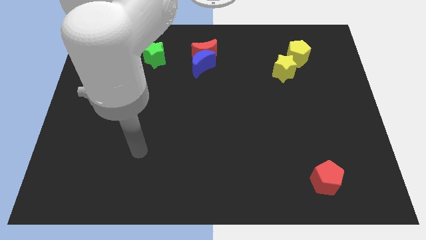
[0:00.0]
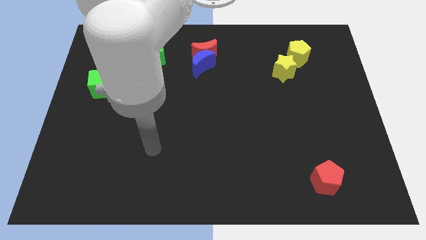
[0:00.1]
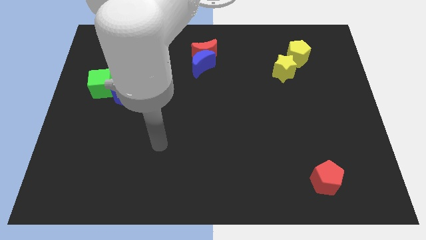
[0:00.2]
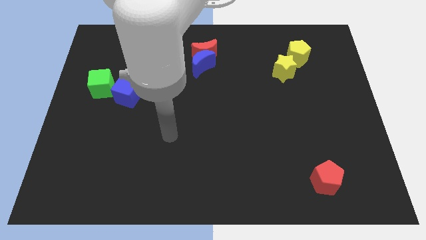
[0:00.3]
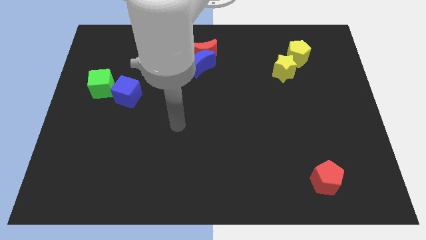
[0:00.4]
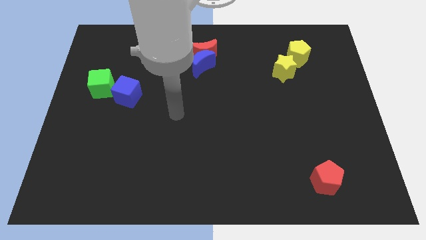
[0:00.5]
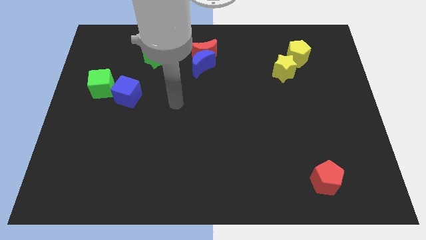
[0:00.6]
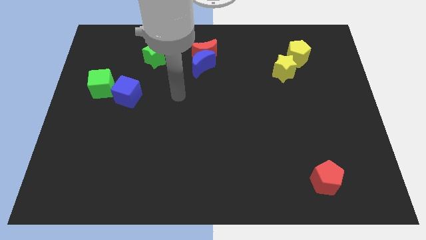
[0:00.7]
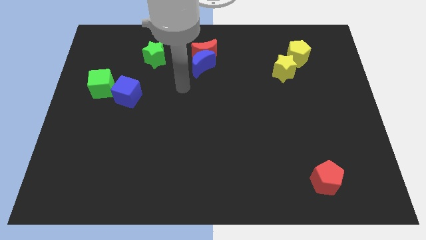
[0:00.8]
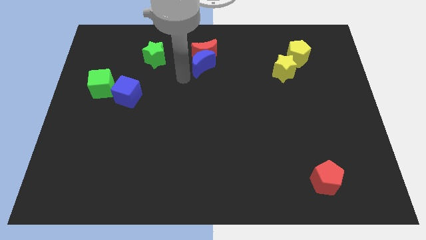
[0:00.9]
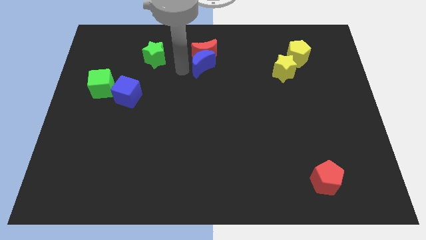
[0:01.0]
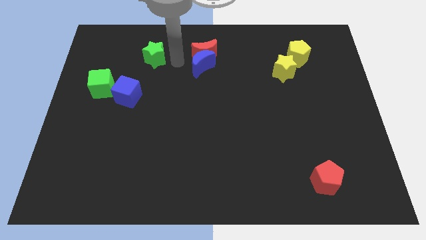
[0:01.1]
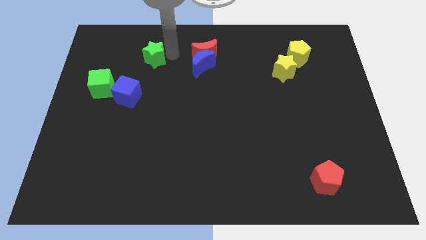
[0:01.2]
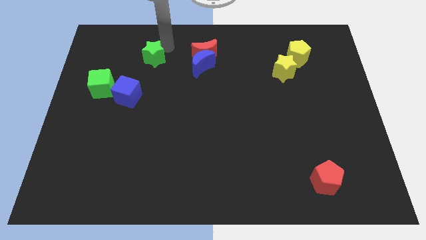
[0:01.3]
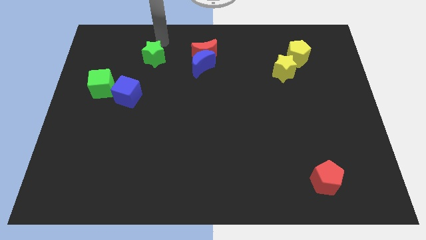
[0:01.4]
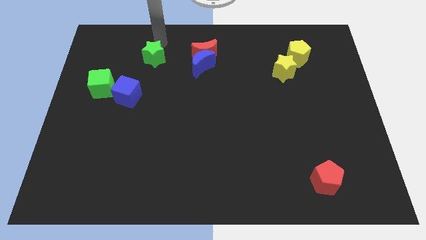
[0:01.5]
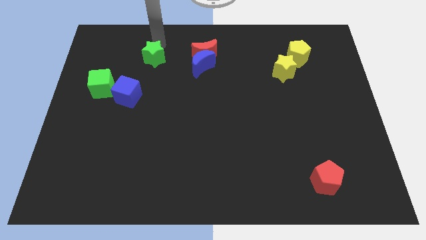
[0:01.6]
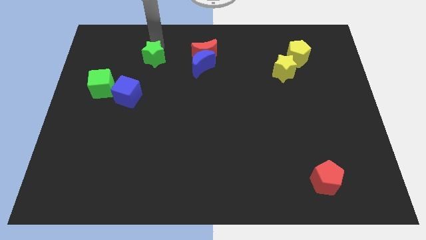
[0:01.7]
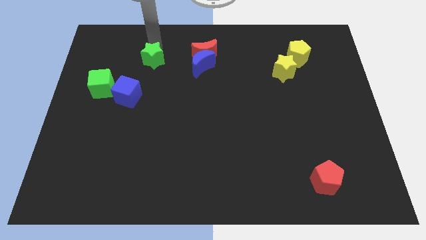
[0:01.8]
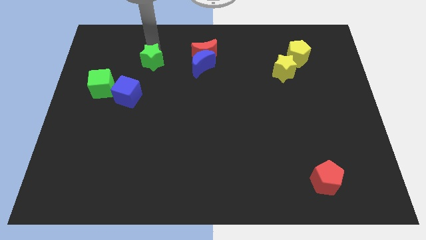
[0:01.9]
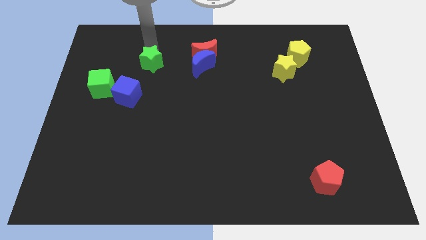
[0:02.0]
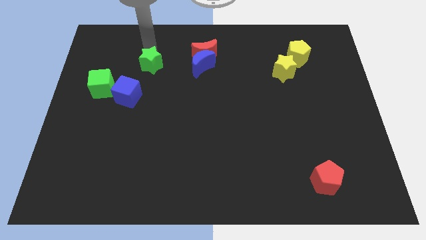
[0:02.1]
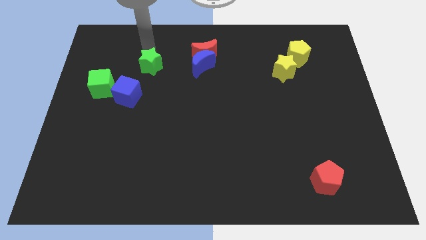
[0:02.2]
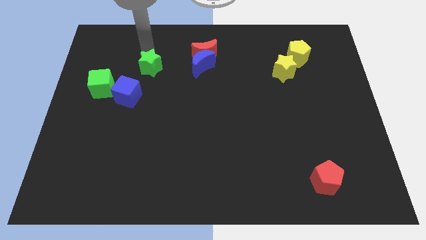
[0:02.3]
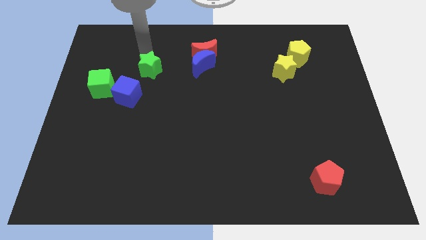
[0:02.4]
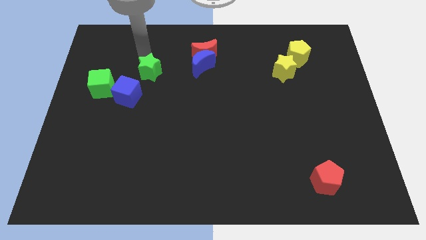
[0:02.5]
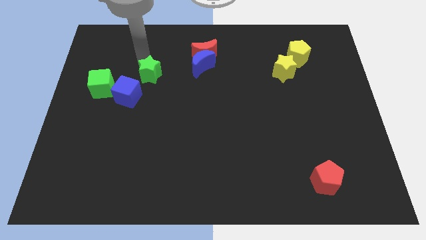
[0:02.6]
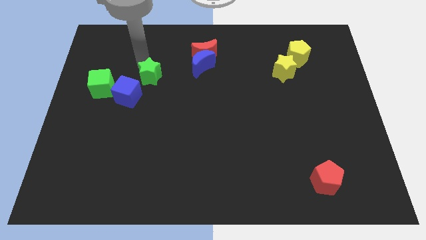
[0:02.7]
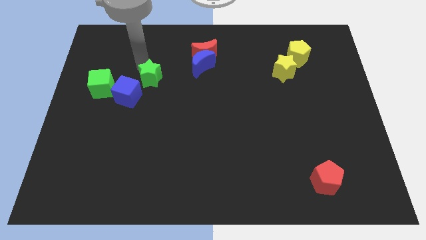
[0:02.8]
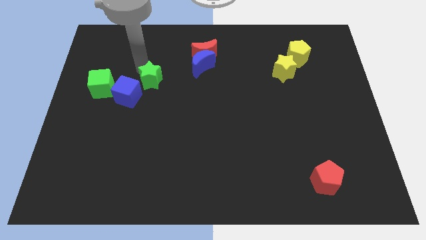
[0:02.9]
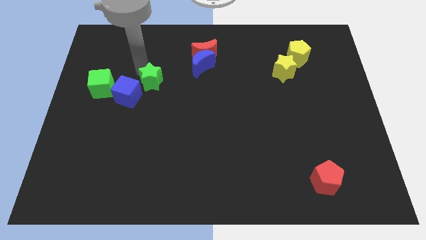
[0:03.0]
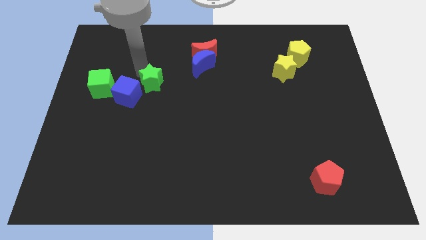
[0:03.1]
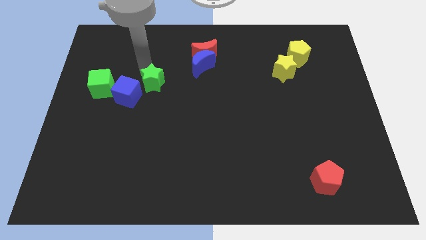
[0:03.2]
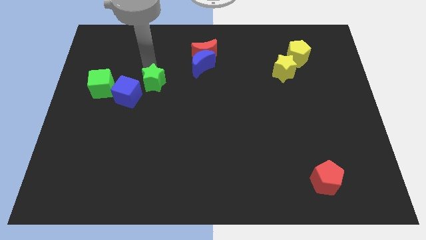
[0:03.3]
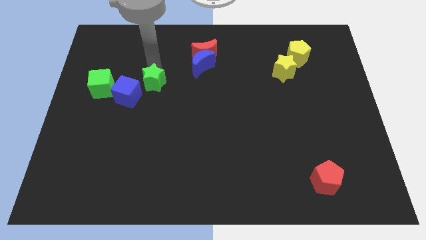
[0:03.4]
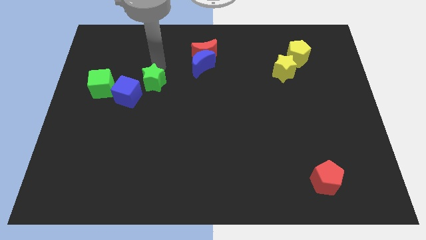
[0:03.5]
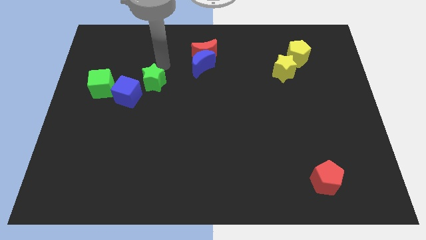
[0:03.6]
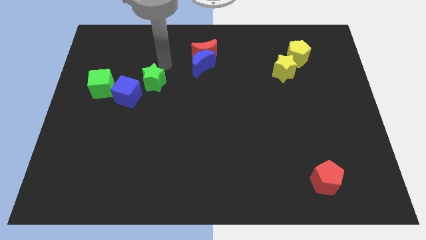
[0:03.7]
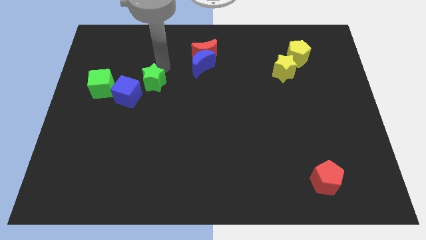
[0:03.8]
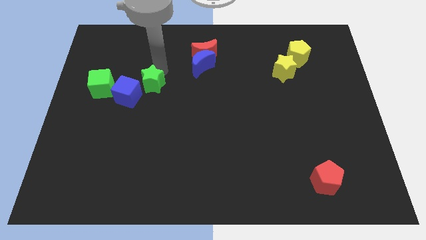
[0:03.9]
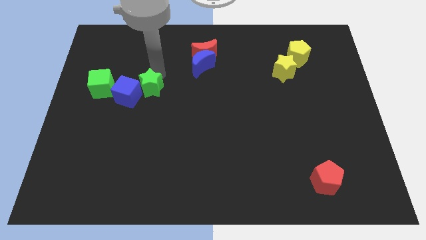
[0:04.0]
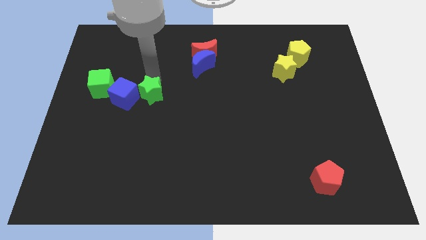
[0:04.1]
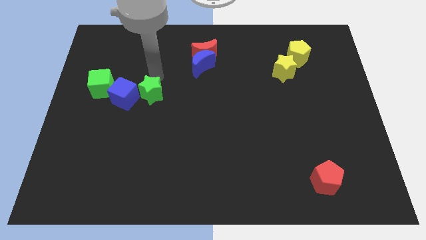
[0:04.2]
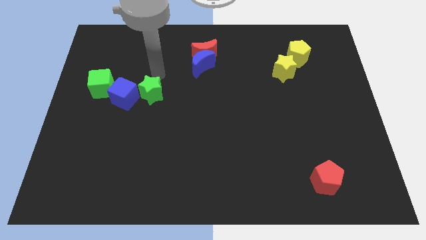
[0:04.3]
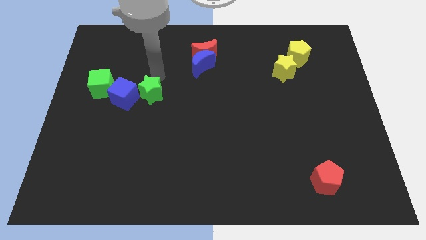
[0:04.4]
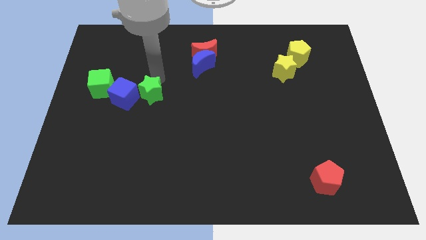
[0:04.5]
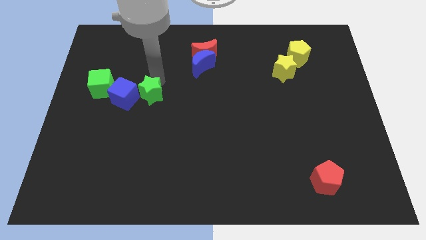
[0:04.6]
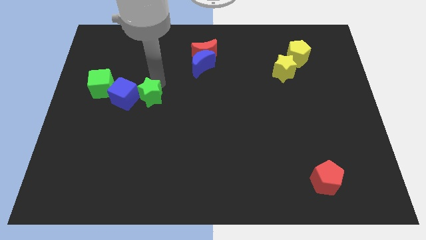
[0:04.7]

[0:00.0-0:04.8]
move the green star to the bottom right side of the blue cube

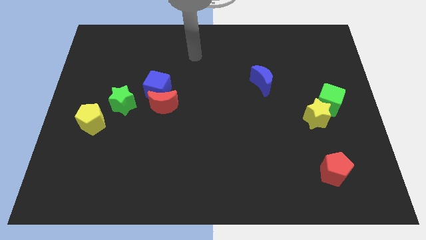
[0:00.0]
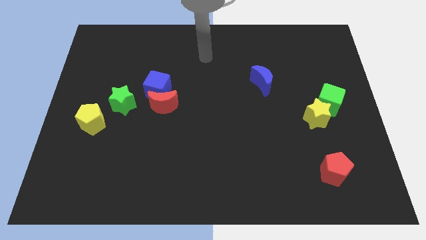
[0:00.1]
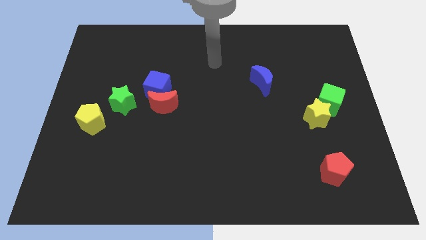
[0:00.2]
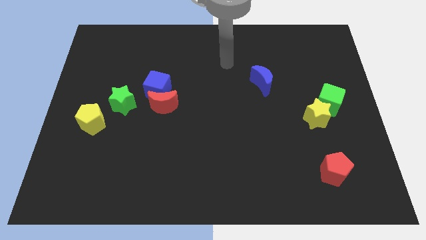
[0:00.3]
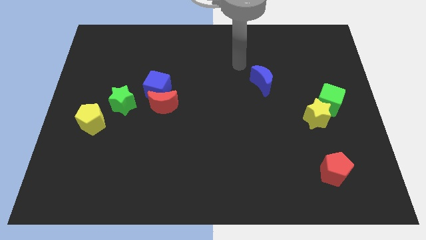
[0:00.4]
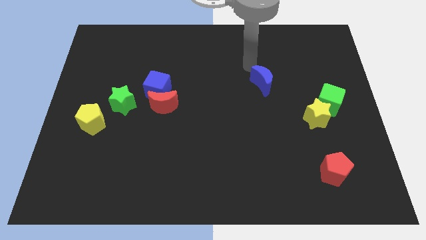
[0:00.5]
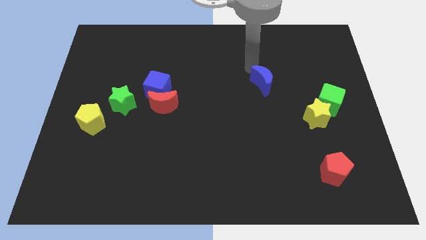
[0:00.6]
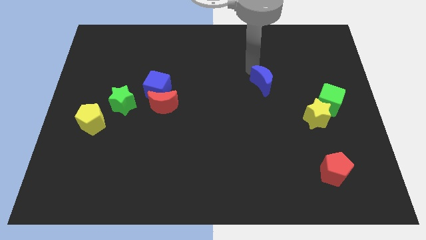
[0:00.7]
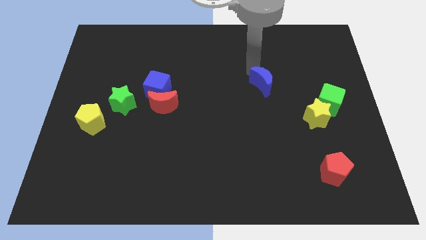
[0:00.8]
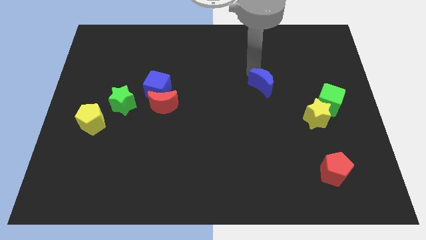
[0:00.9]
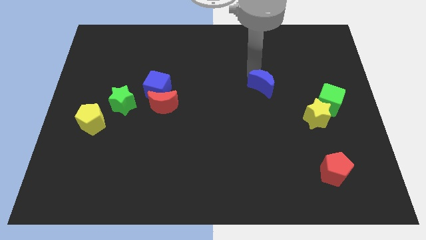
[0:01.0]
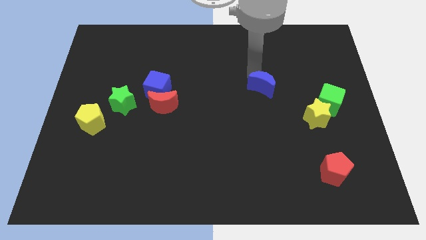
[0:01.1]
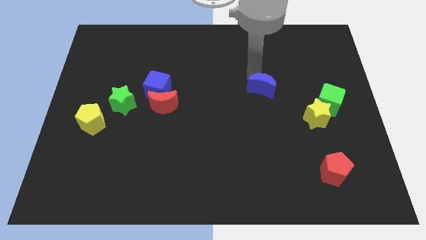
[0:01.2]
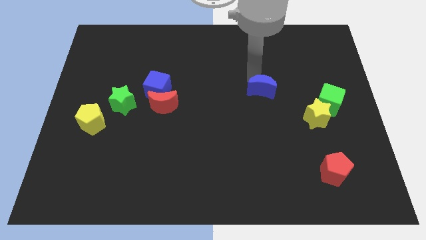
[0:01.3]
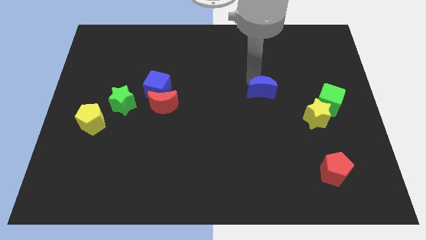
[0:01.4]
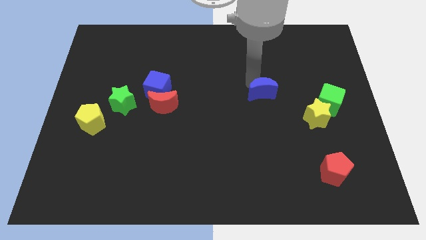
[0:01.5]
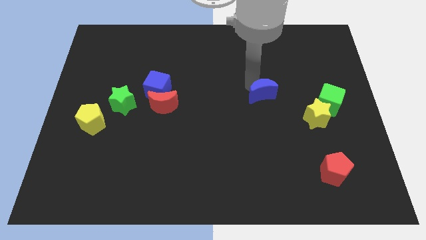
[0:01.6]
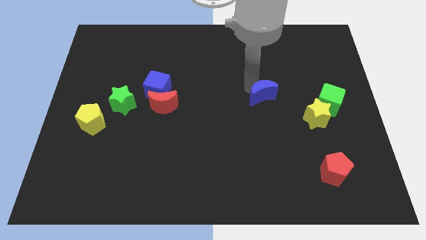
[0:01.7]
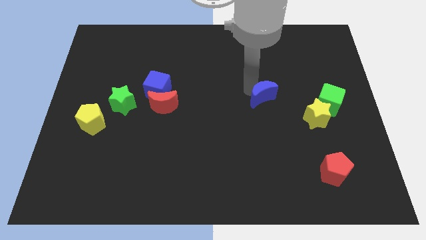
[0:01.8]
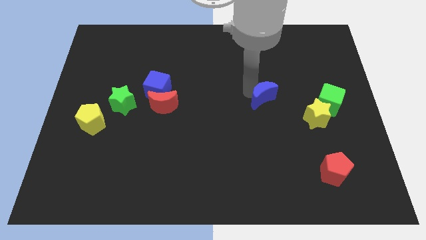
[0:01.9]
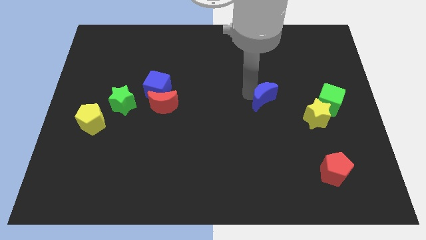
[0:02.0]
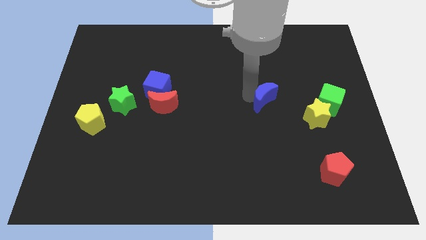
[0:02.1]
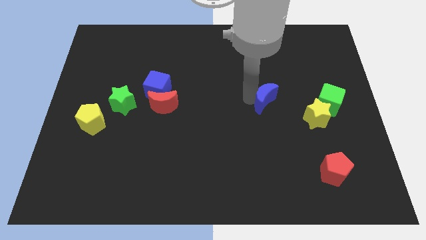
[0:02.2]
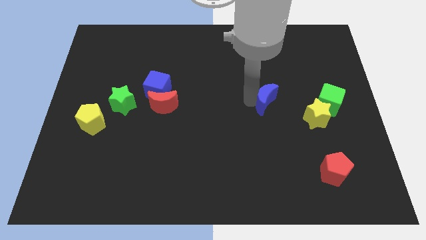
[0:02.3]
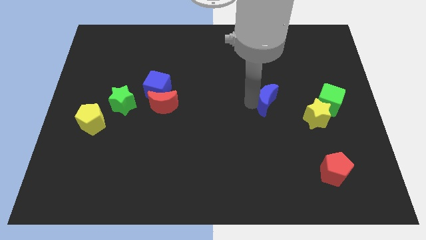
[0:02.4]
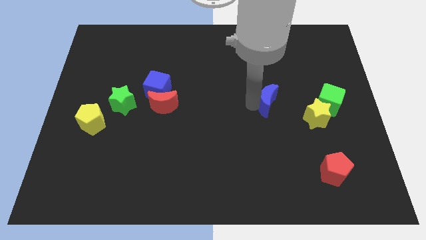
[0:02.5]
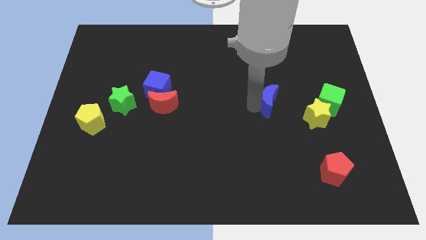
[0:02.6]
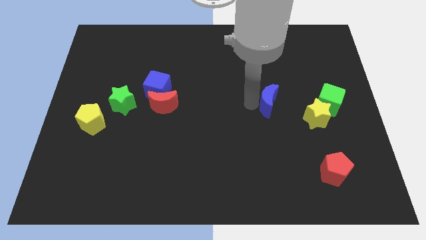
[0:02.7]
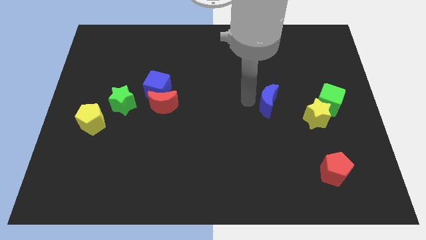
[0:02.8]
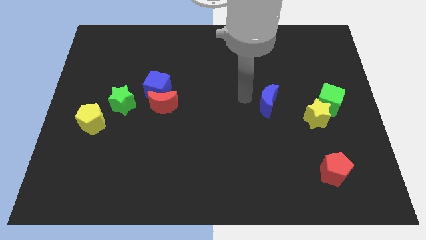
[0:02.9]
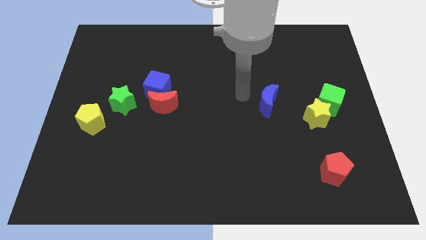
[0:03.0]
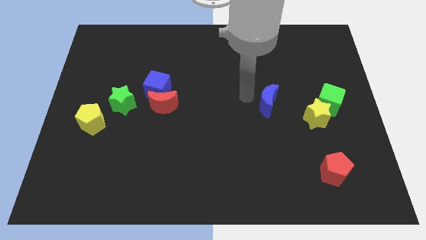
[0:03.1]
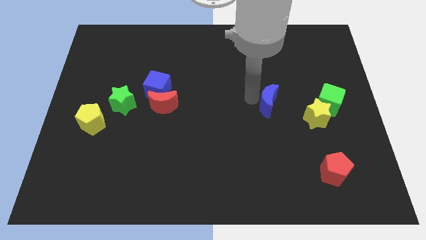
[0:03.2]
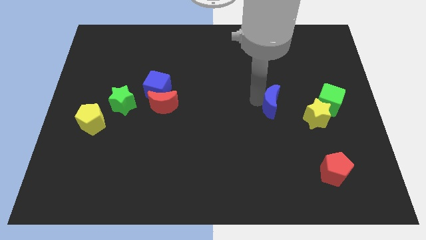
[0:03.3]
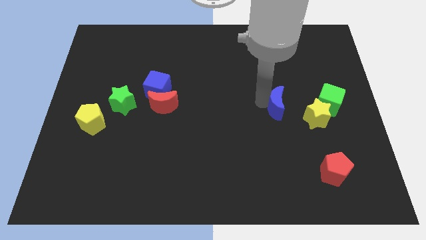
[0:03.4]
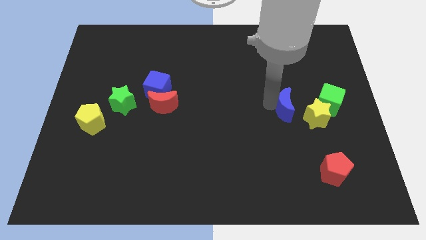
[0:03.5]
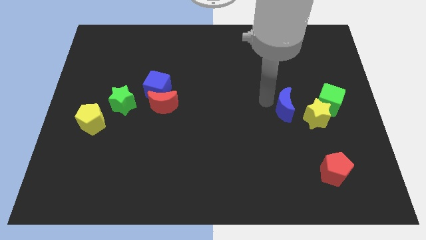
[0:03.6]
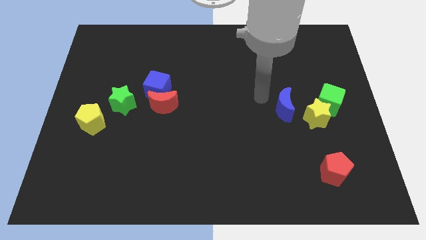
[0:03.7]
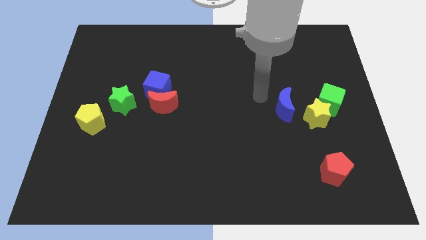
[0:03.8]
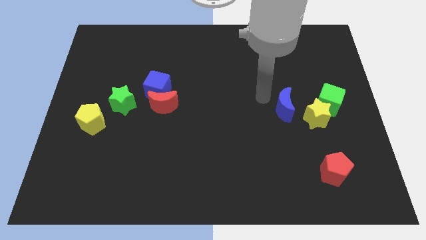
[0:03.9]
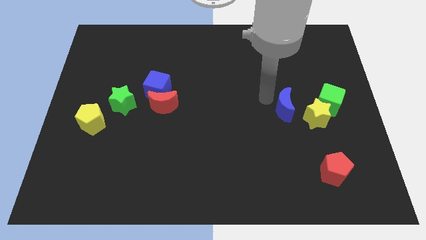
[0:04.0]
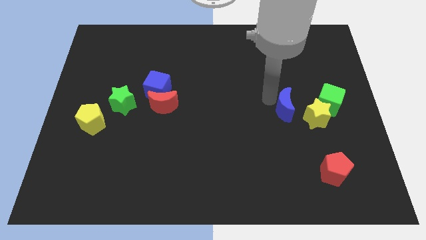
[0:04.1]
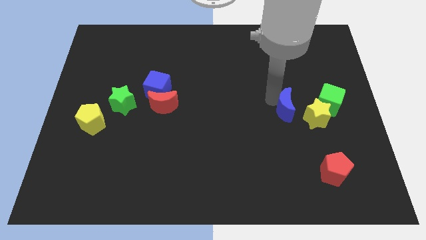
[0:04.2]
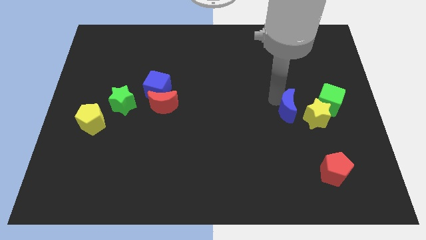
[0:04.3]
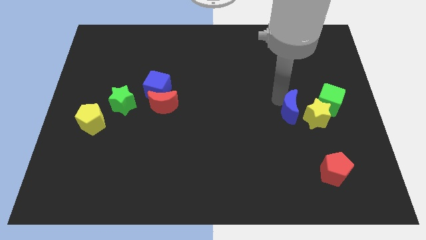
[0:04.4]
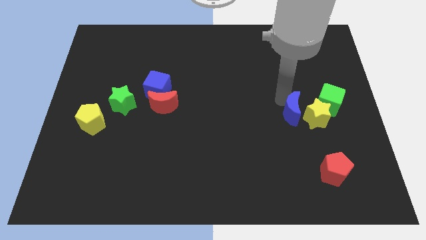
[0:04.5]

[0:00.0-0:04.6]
put the blue moon to the bottom left of the green cube
